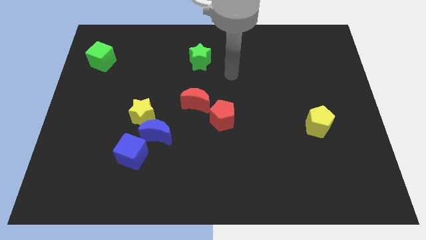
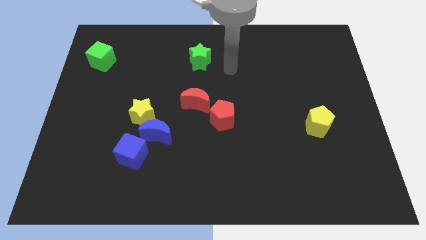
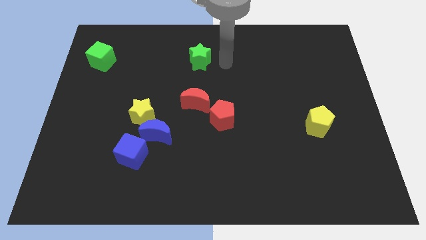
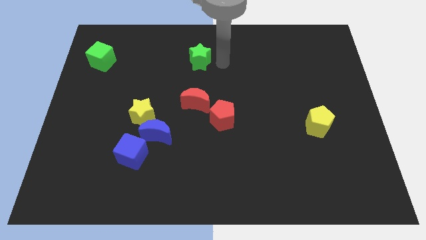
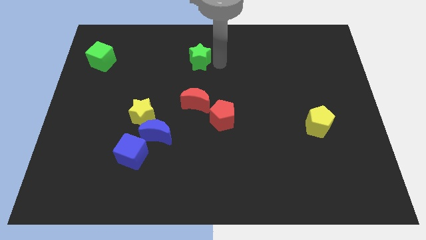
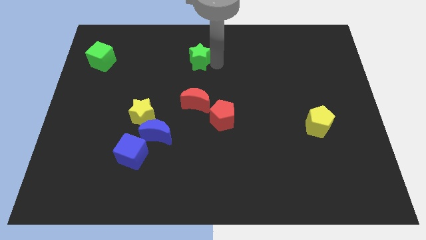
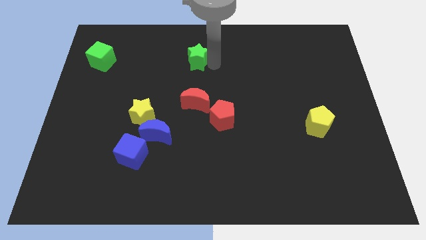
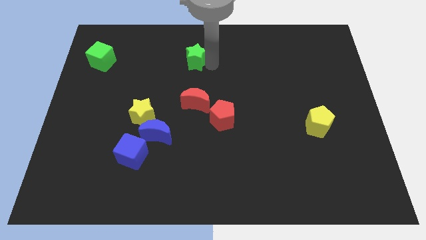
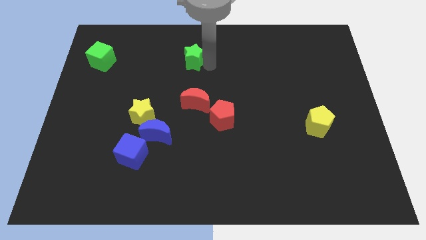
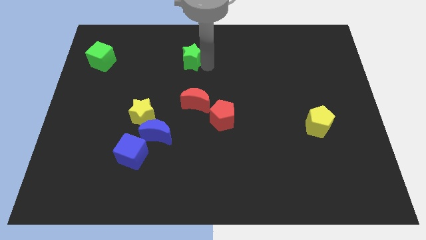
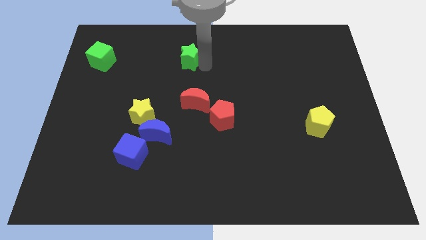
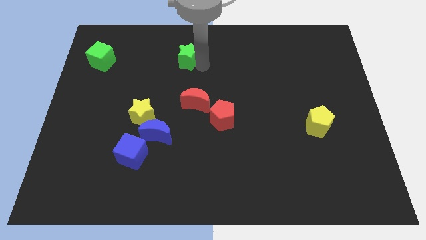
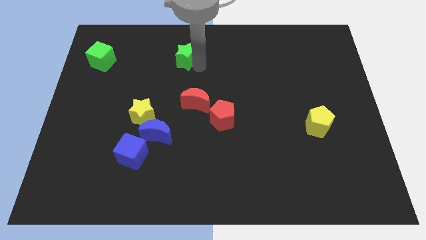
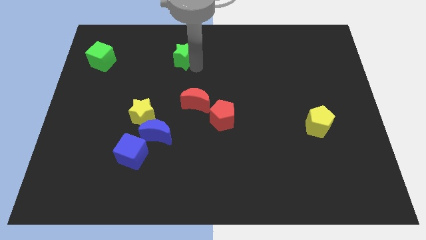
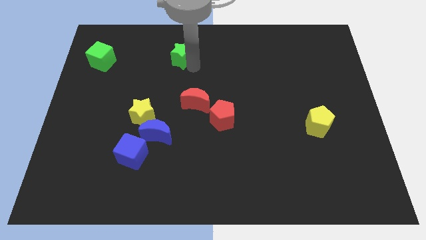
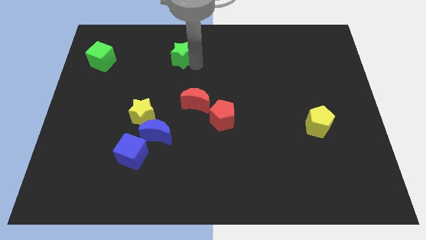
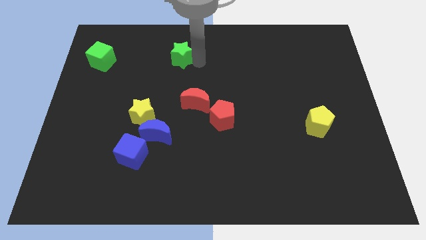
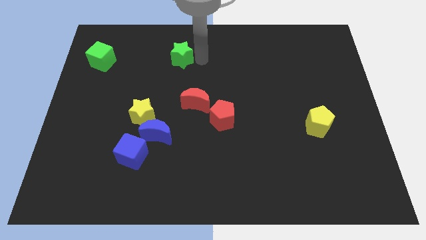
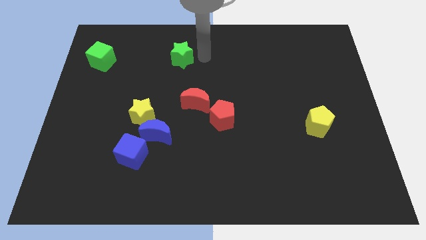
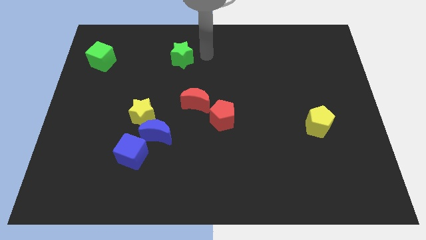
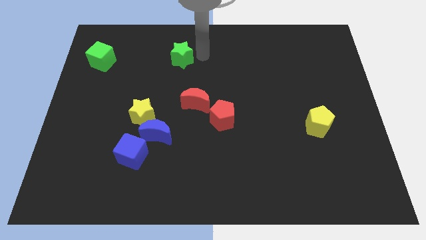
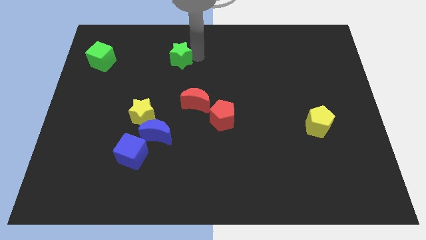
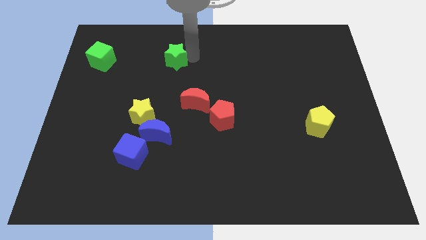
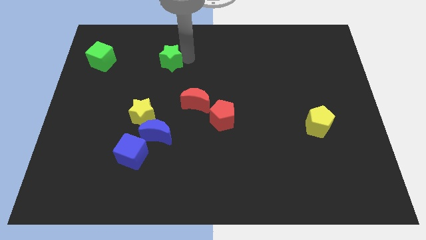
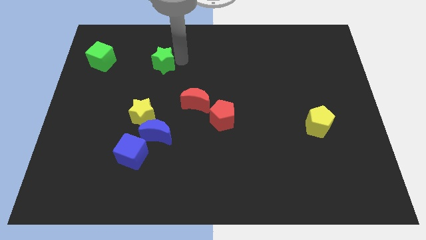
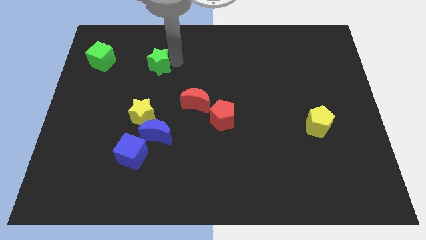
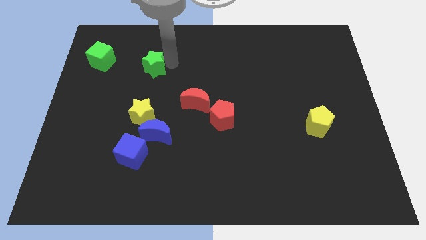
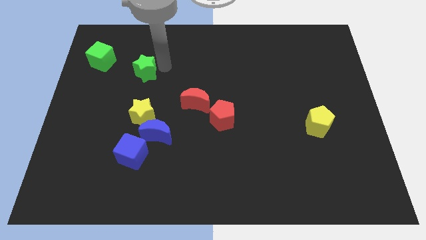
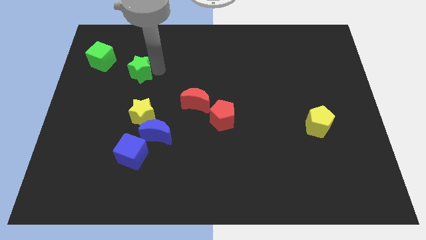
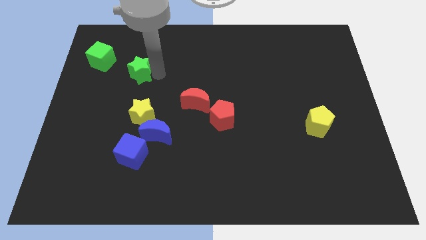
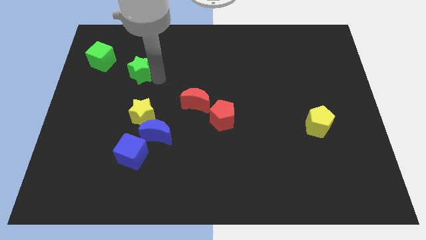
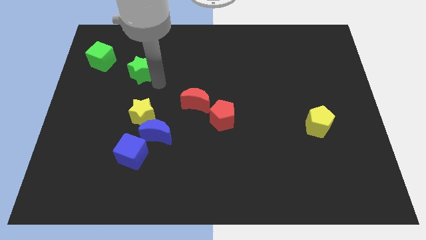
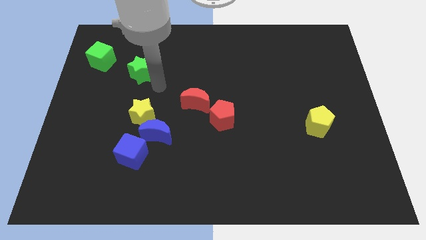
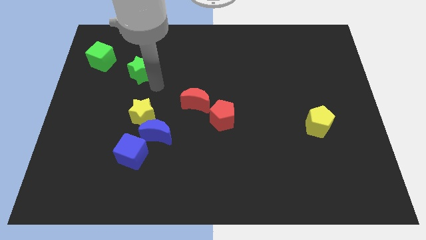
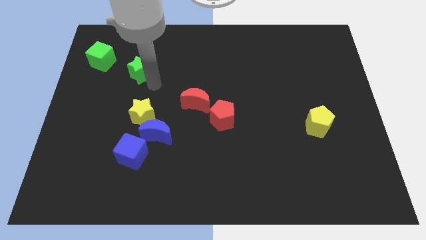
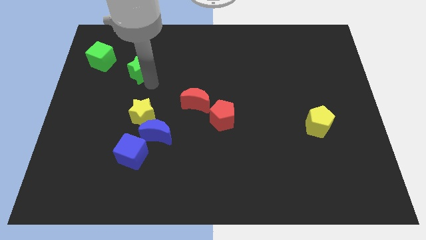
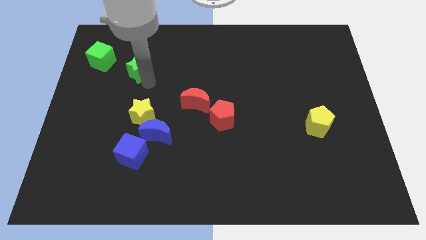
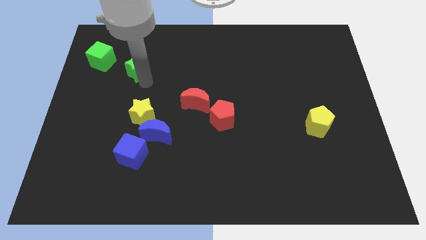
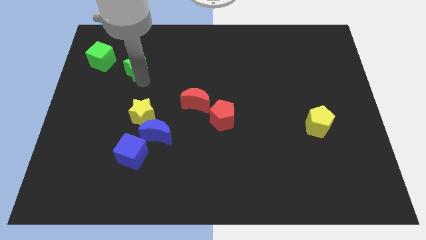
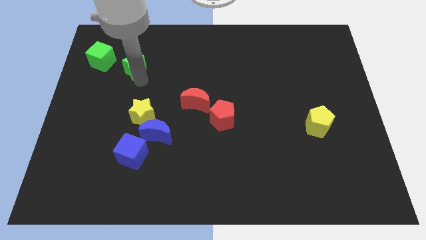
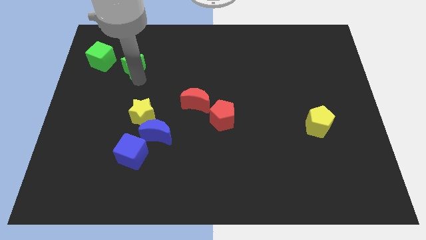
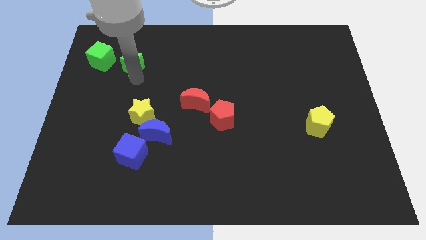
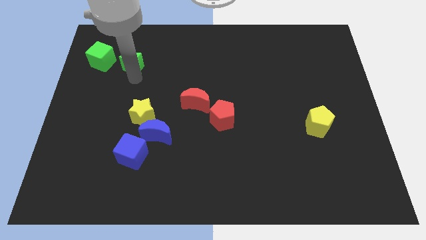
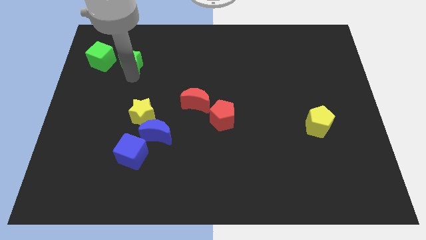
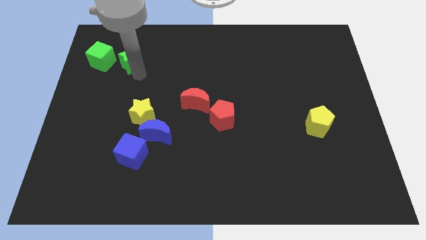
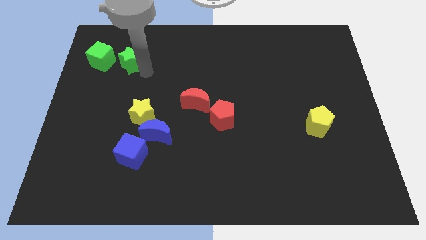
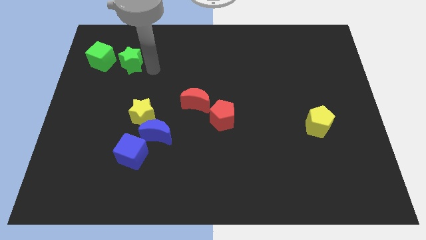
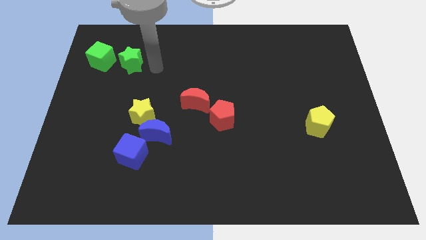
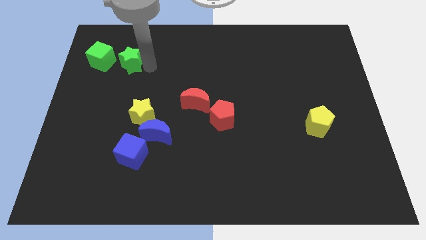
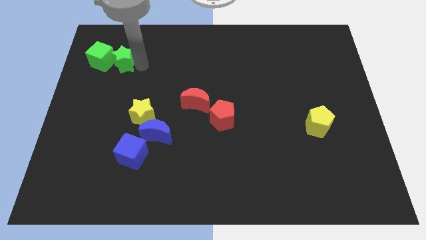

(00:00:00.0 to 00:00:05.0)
put the green star close to the green cube

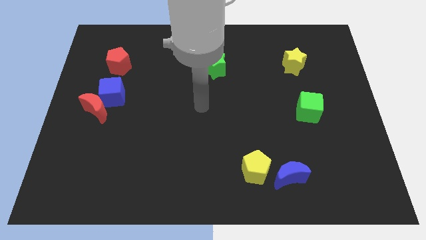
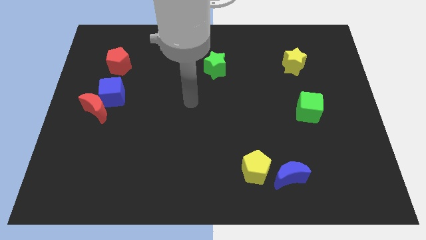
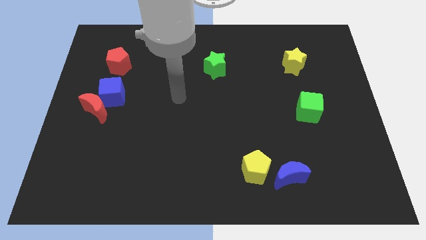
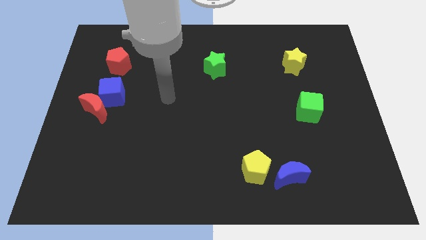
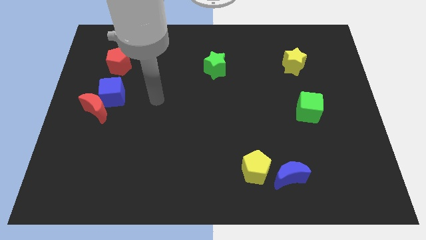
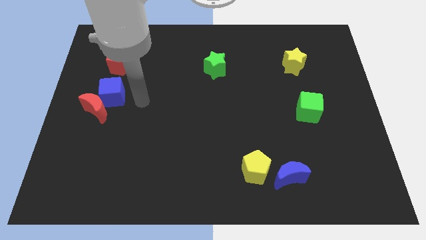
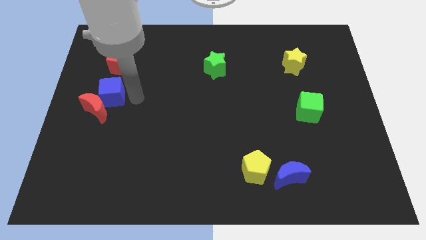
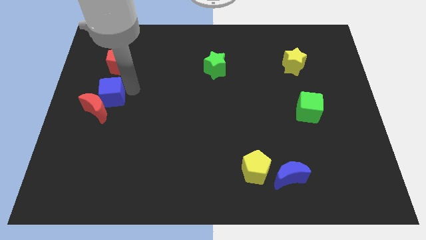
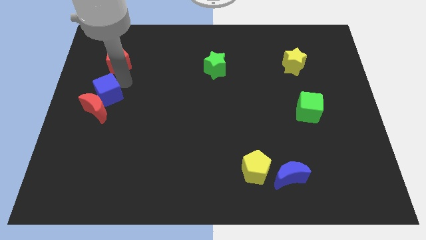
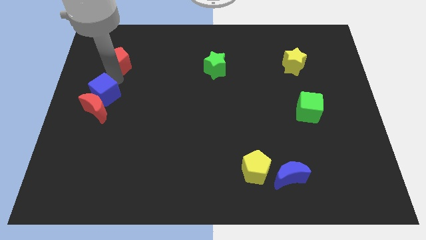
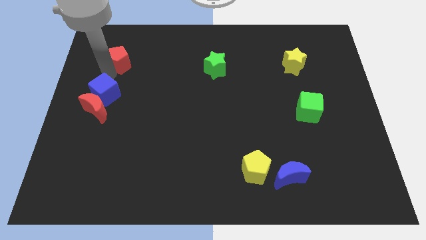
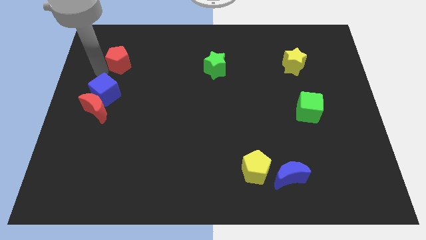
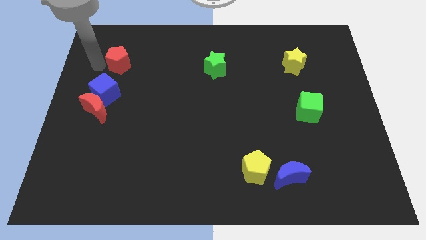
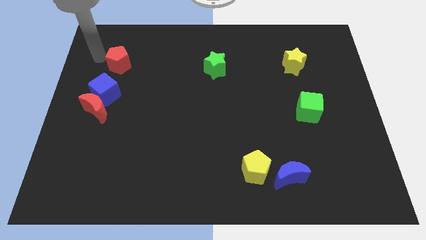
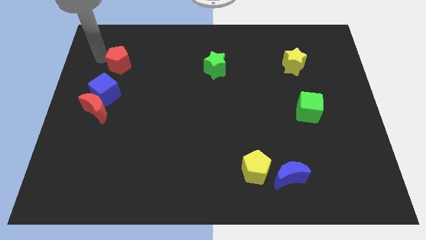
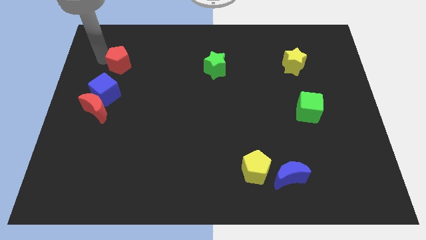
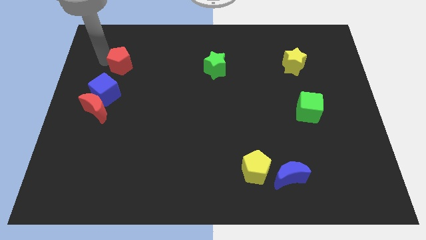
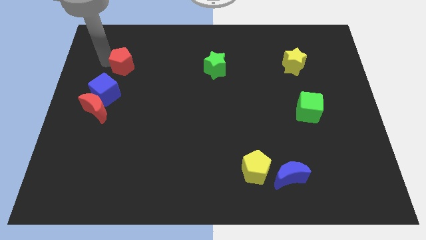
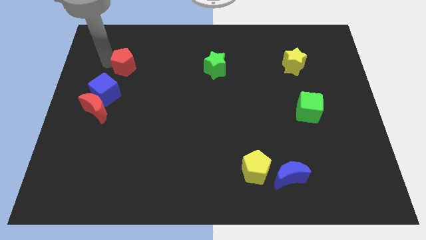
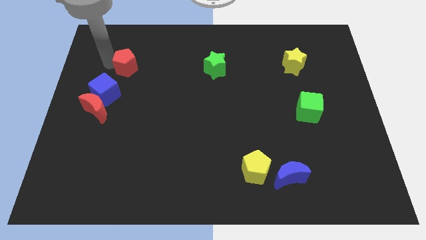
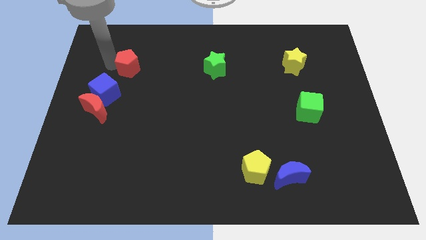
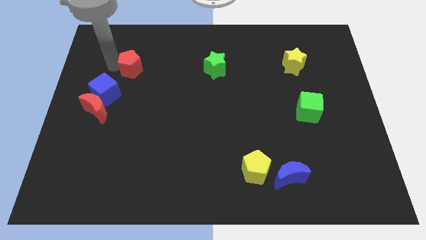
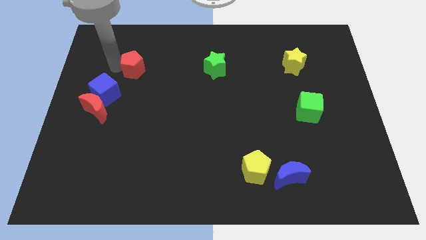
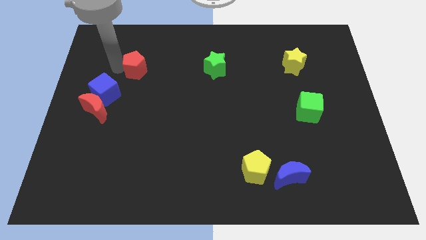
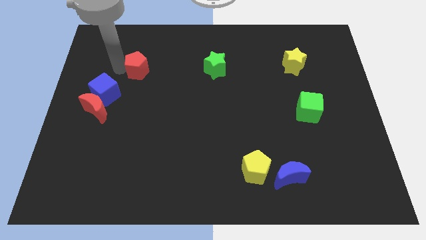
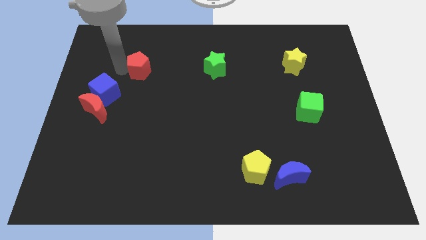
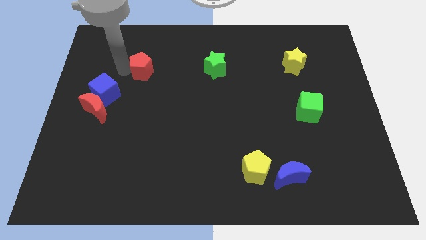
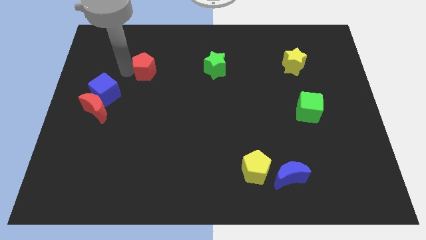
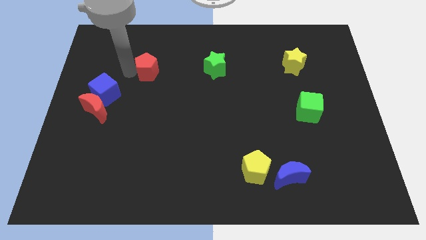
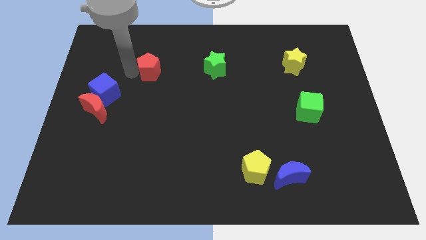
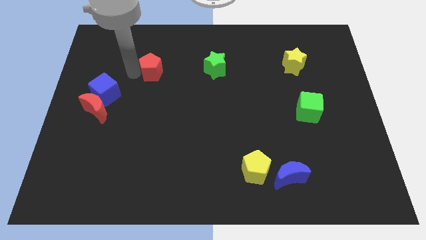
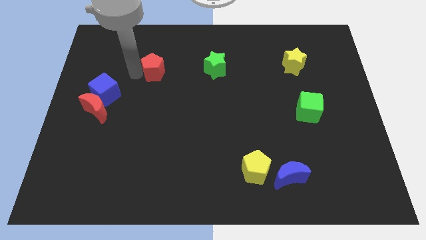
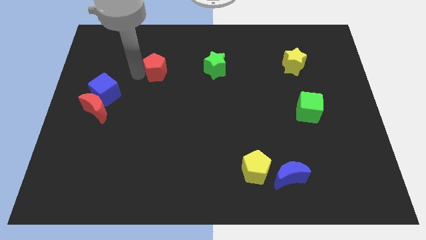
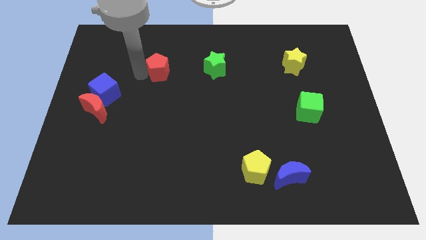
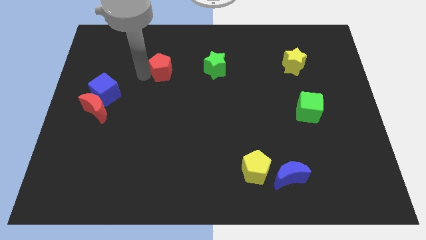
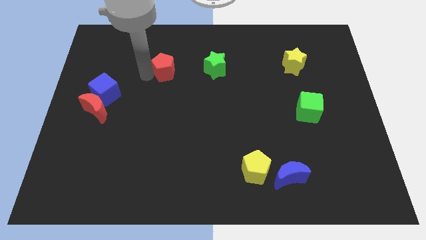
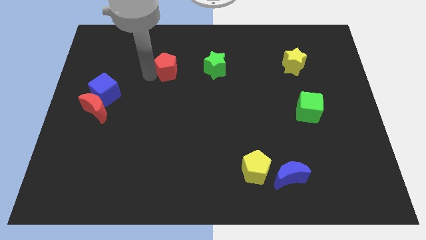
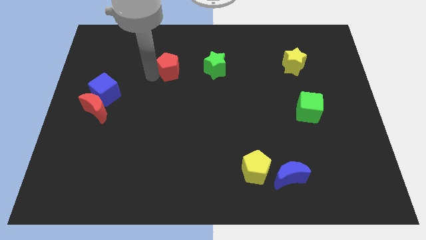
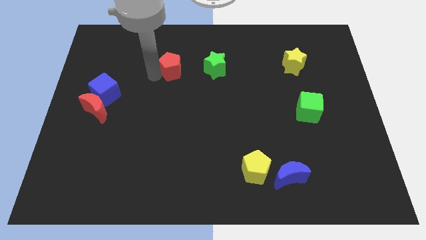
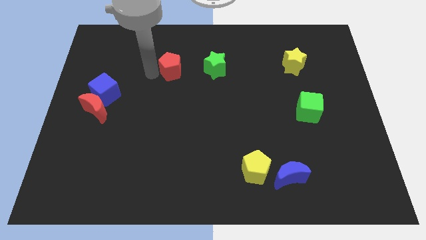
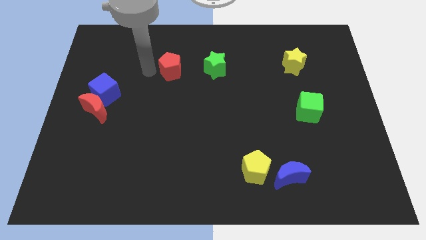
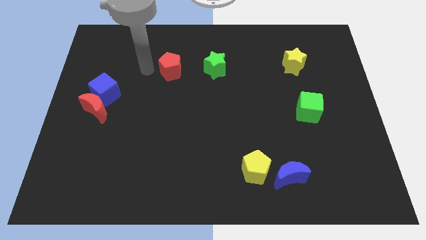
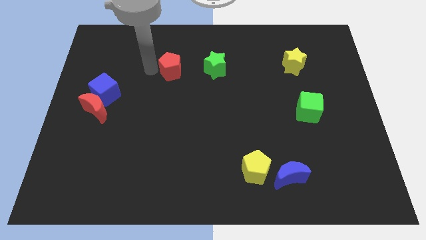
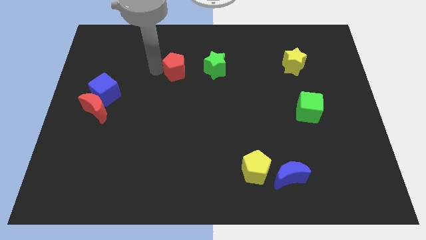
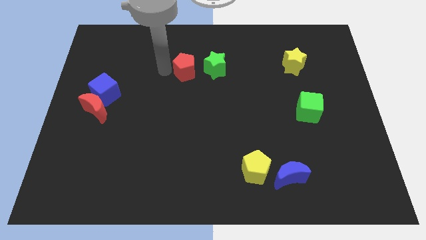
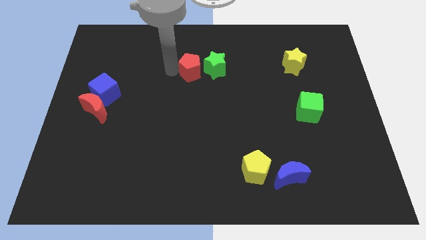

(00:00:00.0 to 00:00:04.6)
push the red pentagon close to the green star
